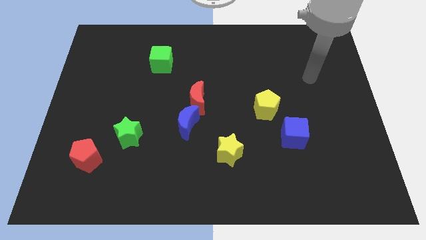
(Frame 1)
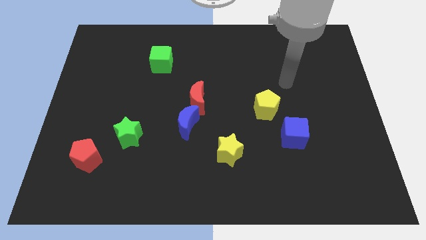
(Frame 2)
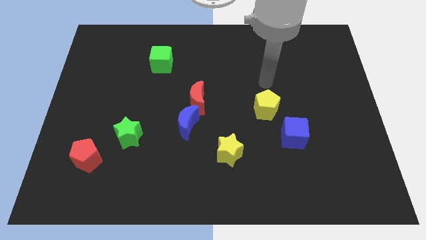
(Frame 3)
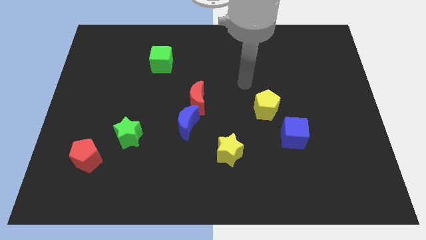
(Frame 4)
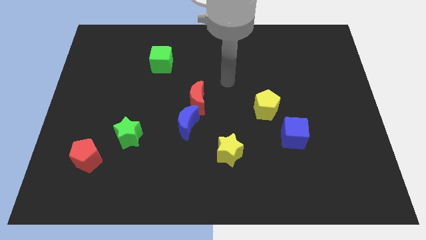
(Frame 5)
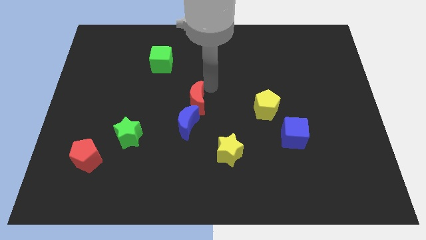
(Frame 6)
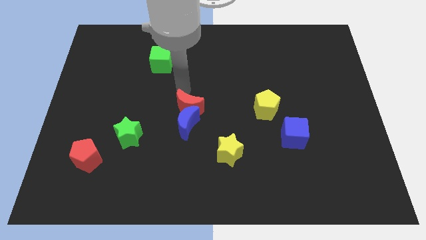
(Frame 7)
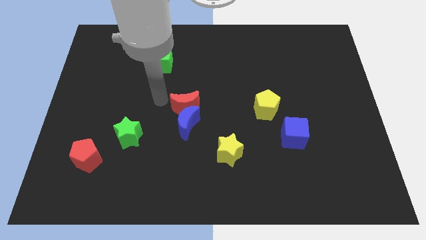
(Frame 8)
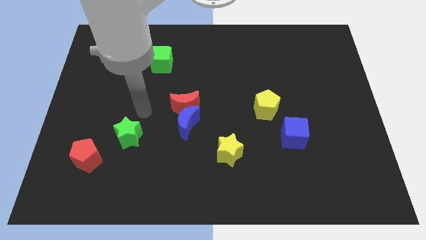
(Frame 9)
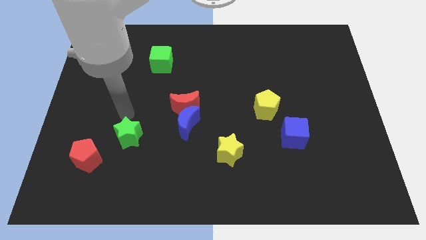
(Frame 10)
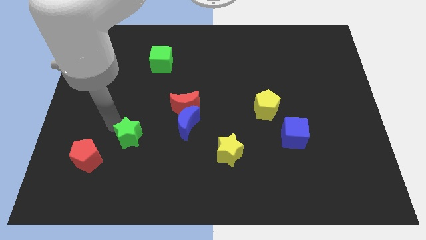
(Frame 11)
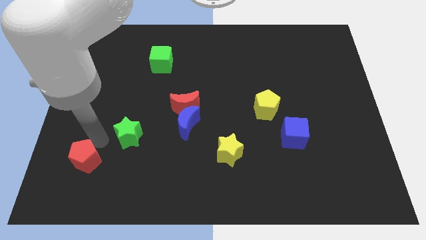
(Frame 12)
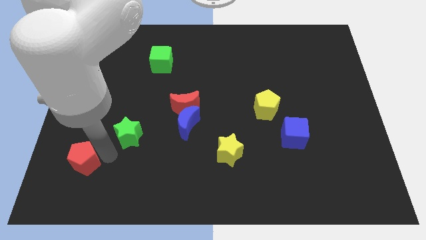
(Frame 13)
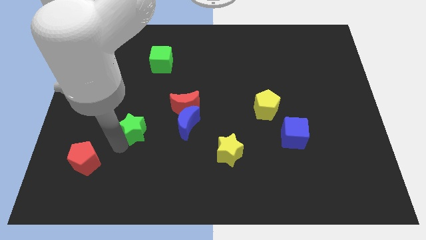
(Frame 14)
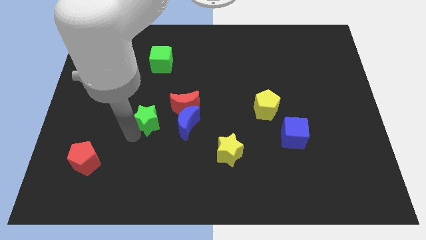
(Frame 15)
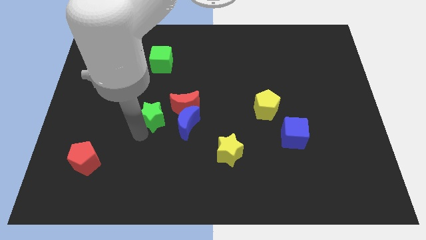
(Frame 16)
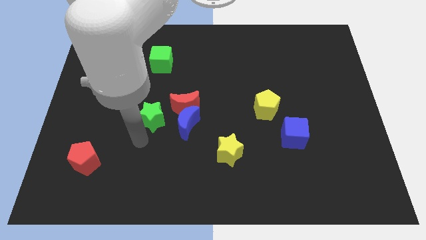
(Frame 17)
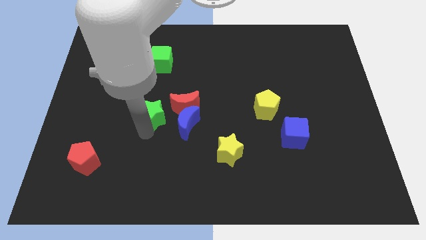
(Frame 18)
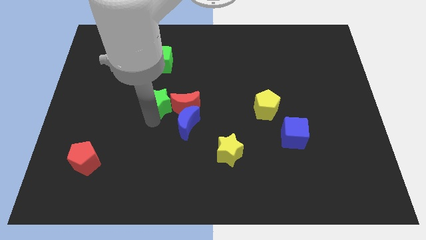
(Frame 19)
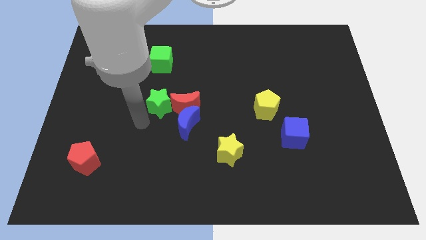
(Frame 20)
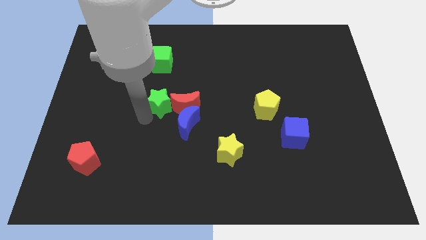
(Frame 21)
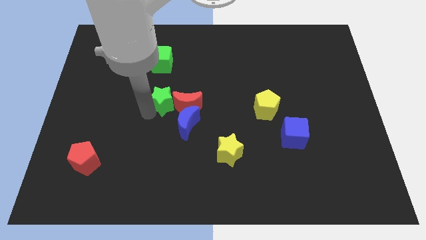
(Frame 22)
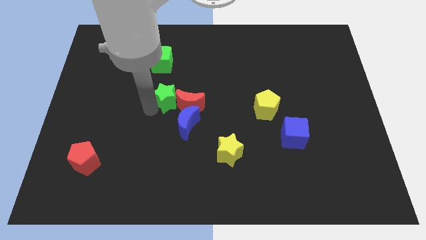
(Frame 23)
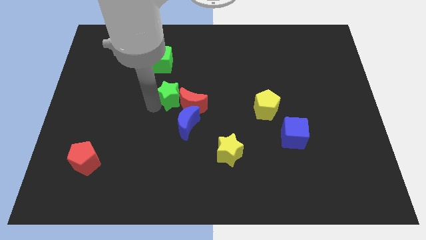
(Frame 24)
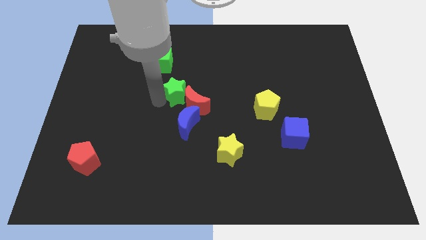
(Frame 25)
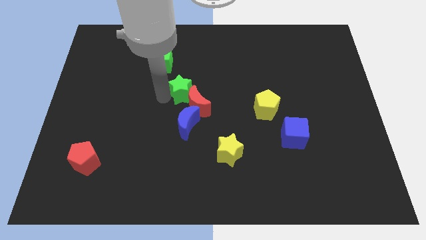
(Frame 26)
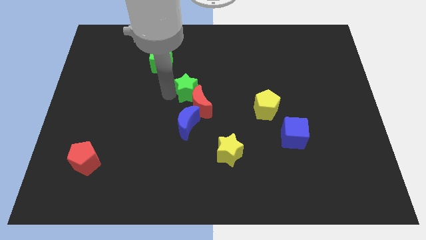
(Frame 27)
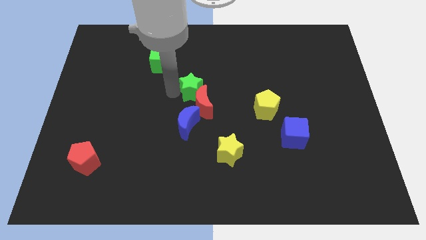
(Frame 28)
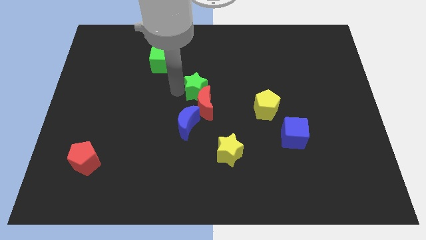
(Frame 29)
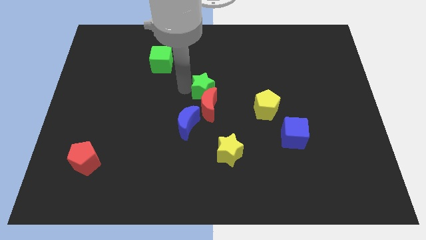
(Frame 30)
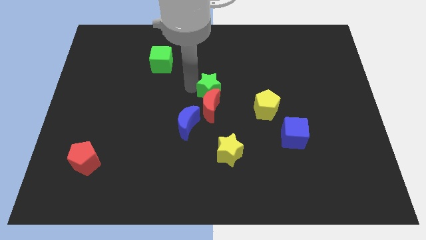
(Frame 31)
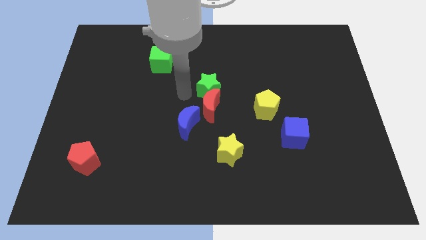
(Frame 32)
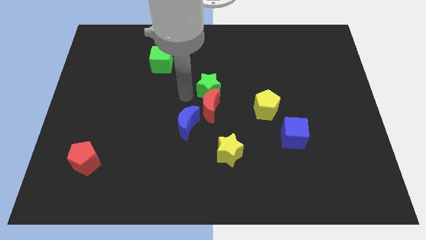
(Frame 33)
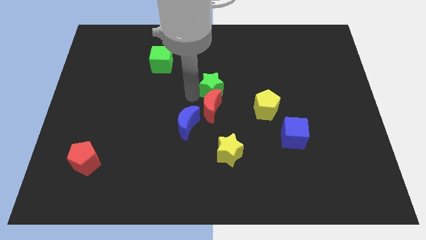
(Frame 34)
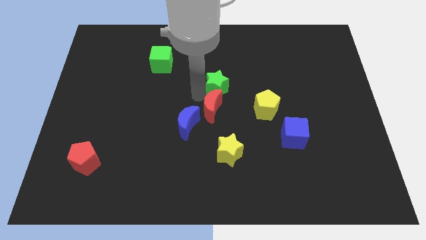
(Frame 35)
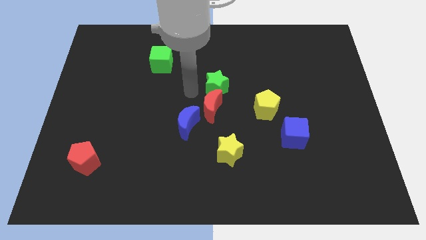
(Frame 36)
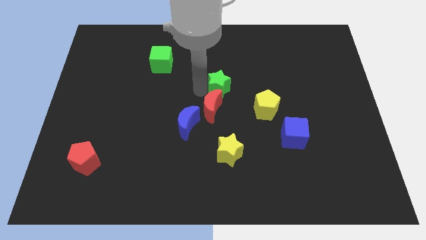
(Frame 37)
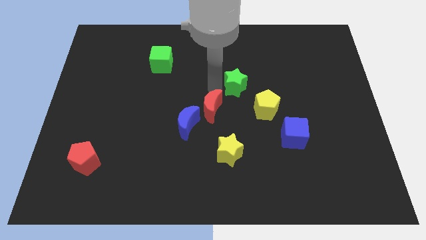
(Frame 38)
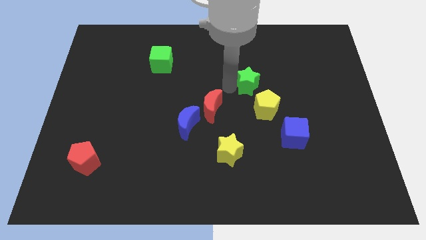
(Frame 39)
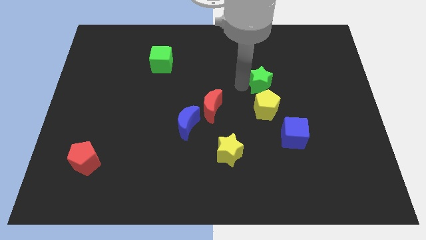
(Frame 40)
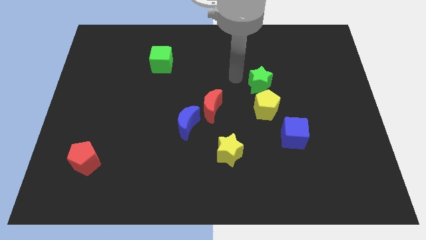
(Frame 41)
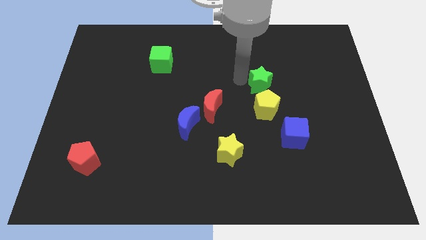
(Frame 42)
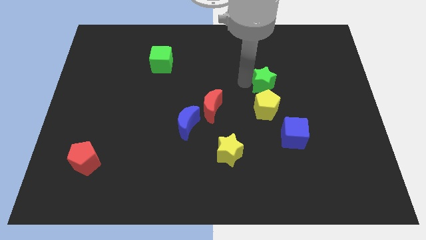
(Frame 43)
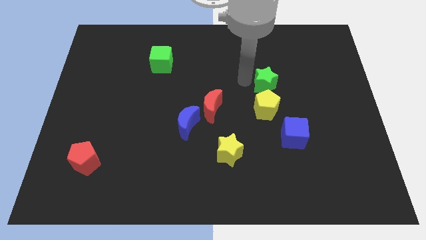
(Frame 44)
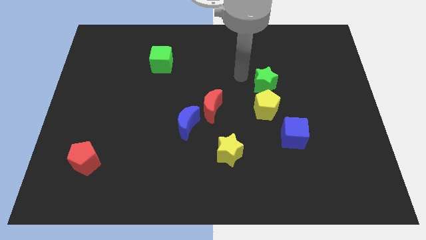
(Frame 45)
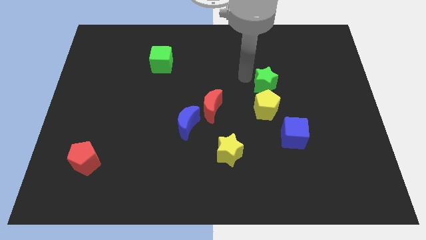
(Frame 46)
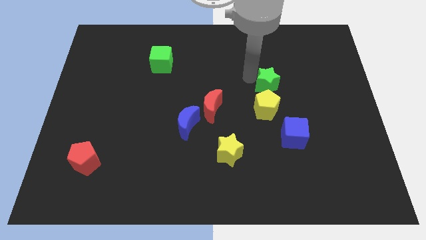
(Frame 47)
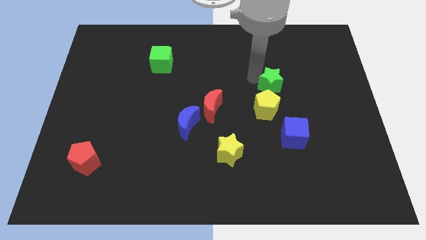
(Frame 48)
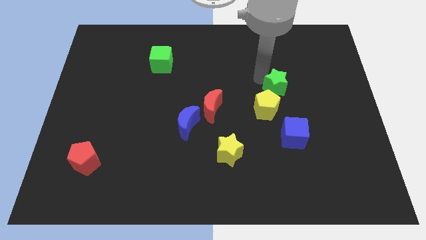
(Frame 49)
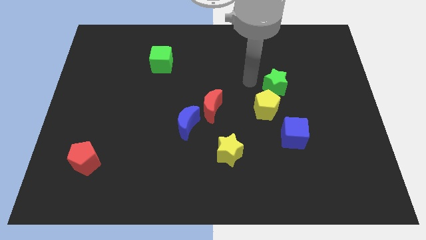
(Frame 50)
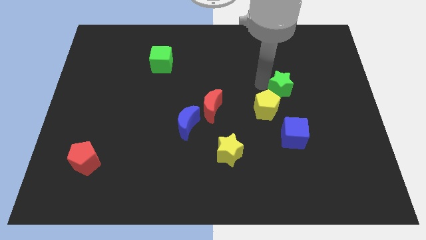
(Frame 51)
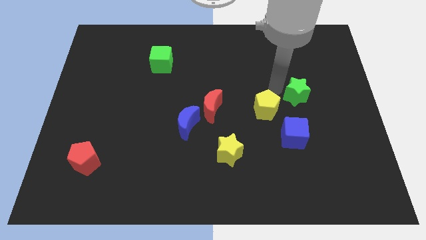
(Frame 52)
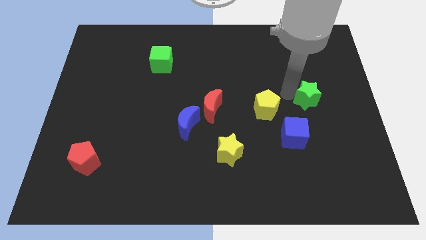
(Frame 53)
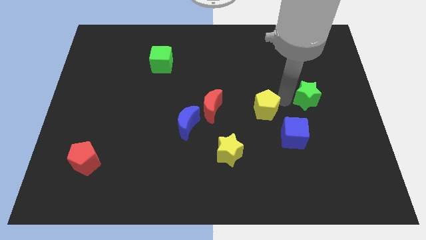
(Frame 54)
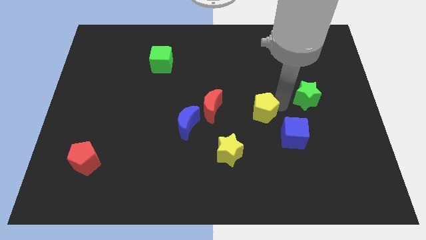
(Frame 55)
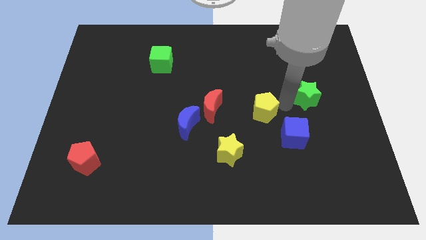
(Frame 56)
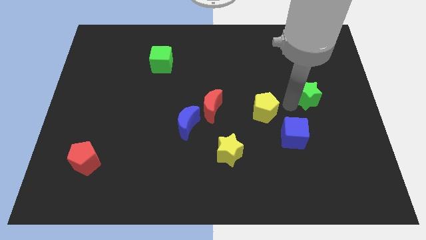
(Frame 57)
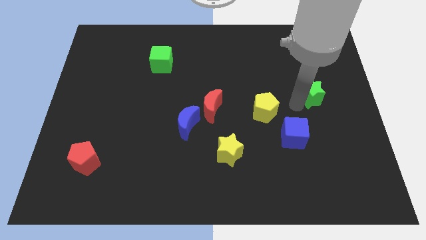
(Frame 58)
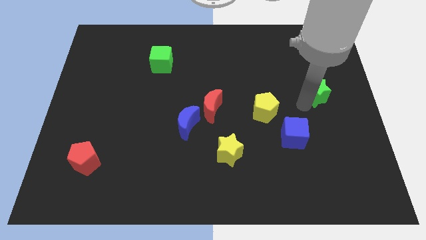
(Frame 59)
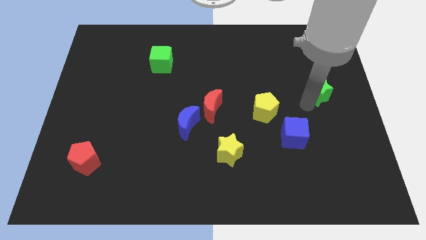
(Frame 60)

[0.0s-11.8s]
put the green star to the center right

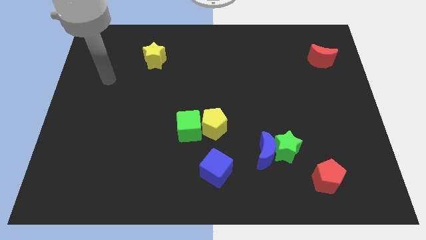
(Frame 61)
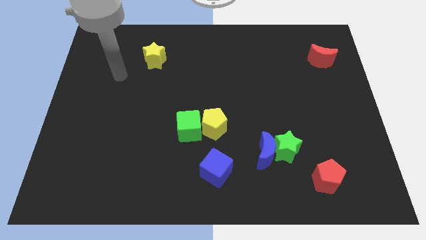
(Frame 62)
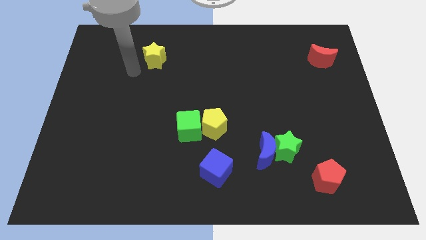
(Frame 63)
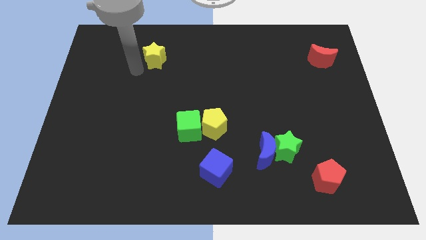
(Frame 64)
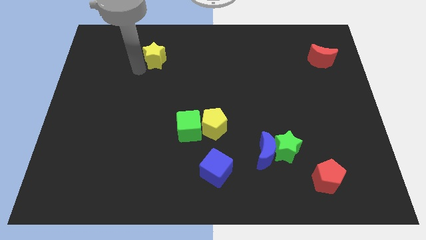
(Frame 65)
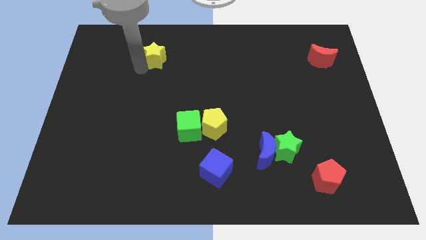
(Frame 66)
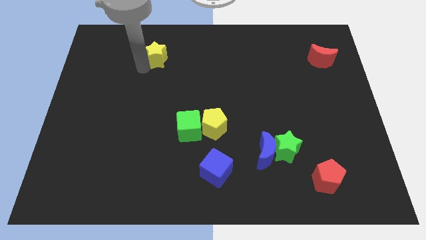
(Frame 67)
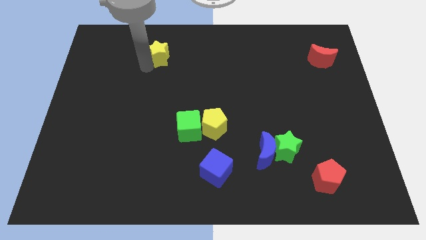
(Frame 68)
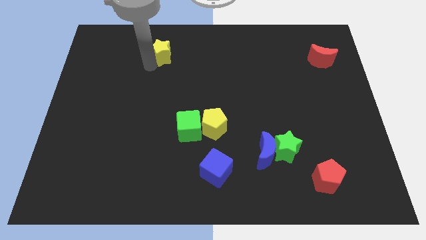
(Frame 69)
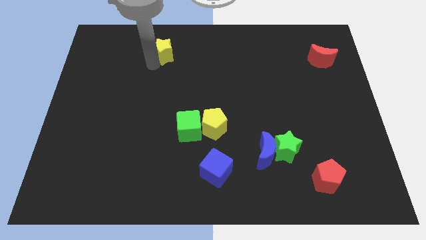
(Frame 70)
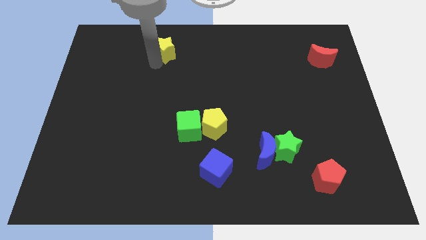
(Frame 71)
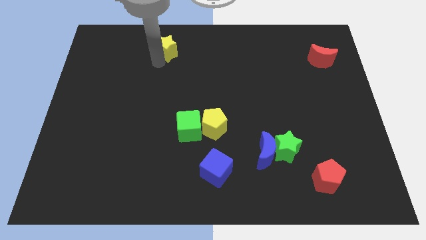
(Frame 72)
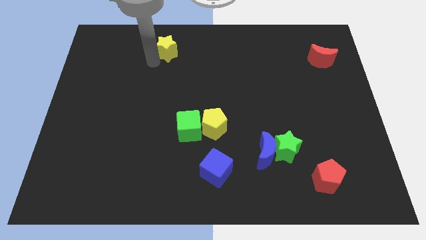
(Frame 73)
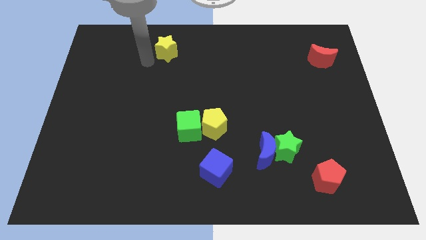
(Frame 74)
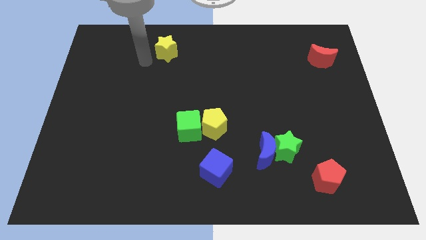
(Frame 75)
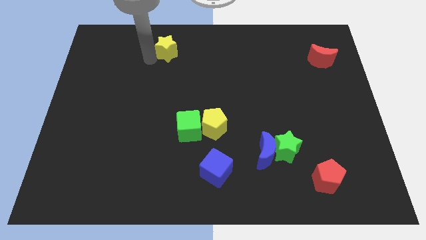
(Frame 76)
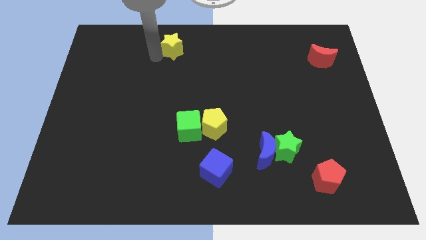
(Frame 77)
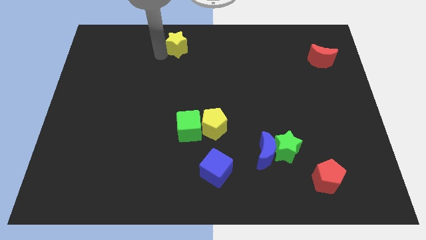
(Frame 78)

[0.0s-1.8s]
put the yellow star to the top
